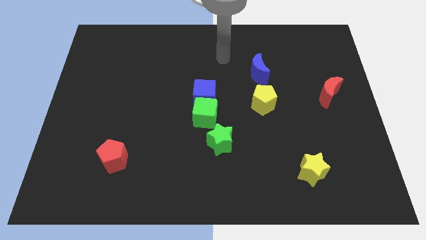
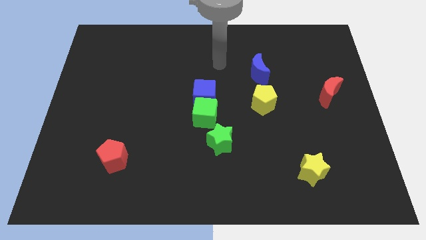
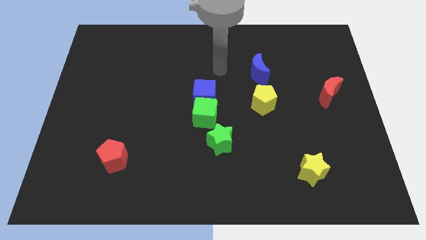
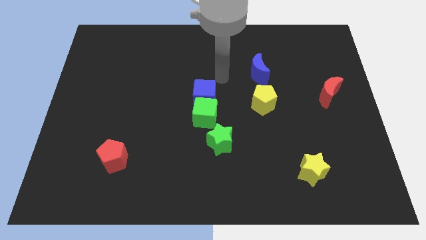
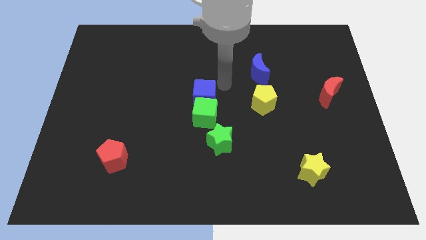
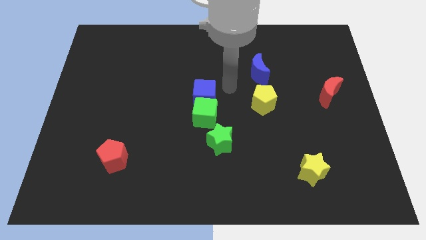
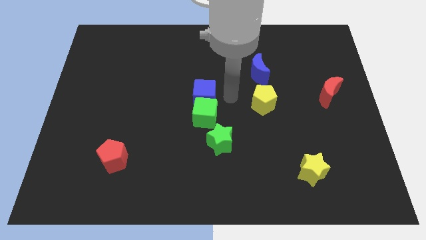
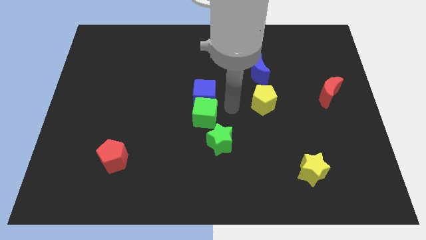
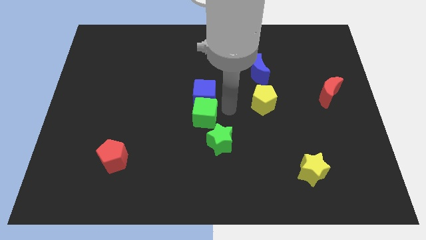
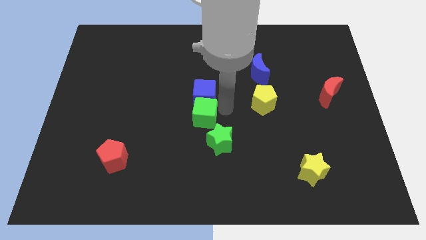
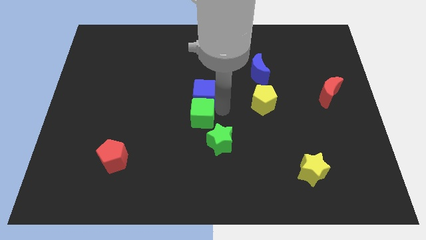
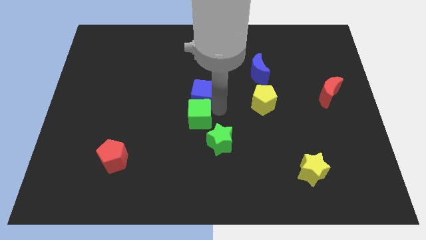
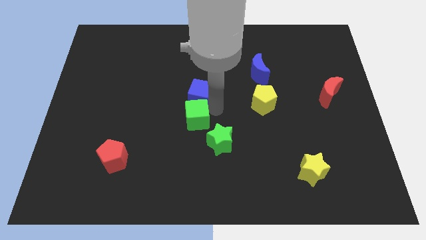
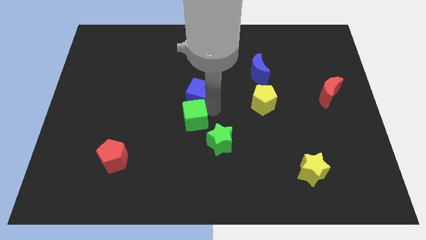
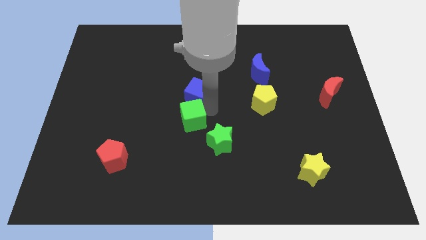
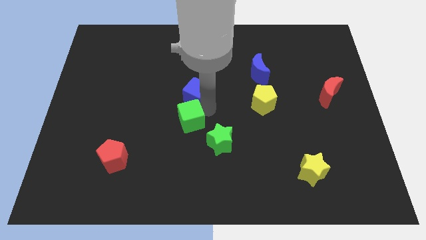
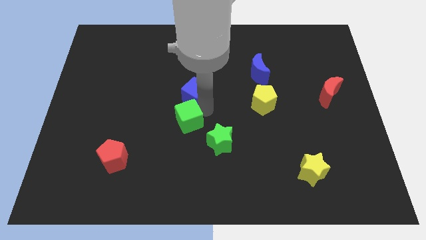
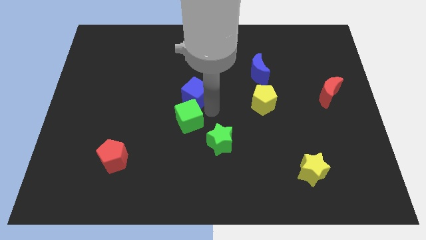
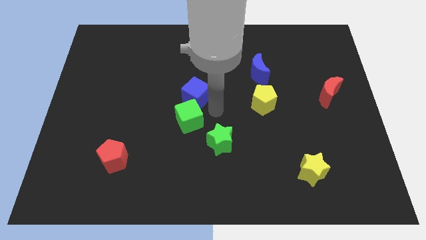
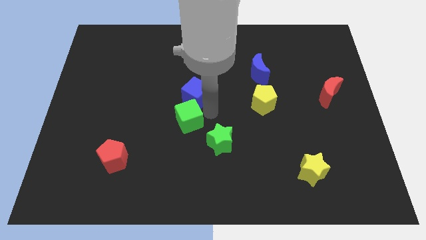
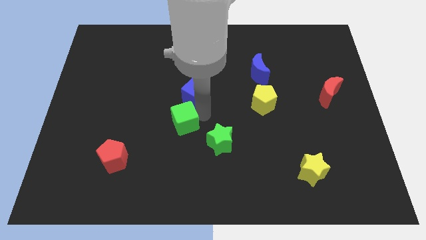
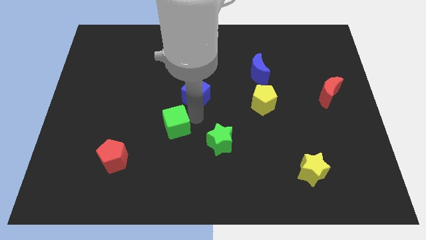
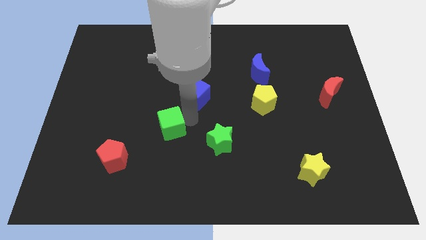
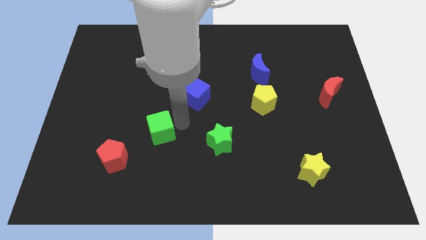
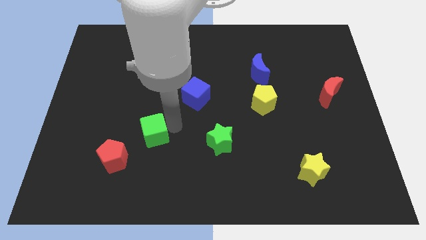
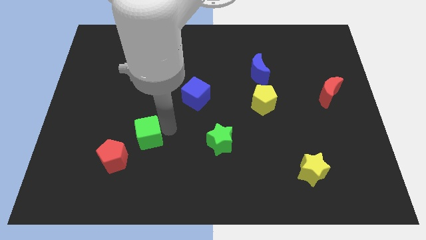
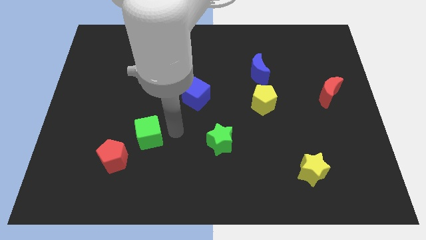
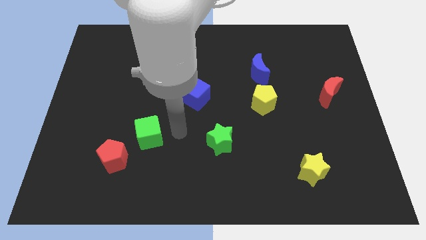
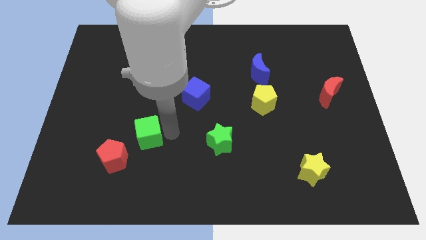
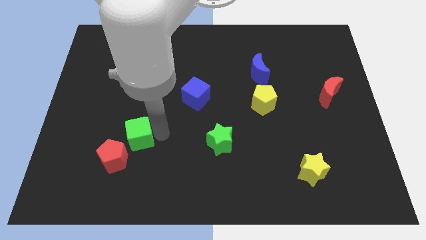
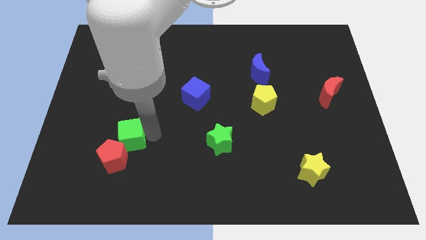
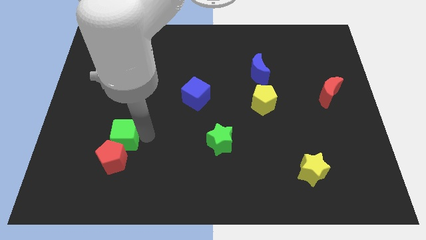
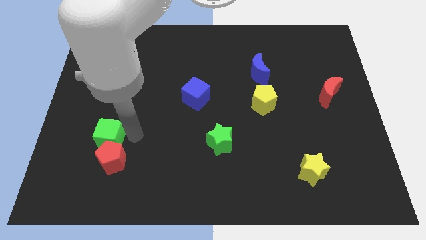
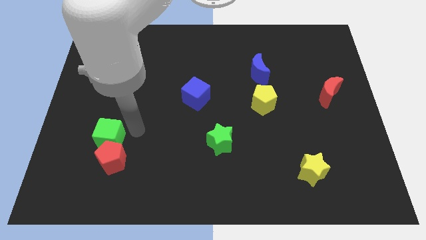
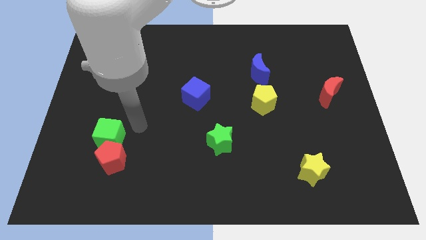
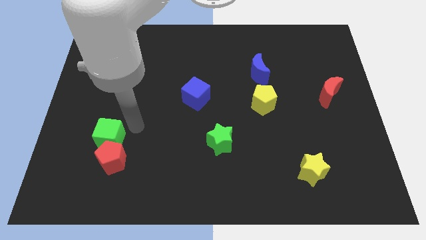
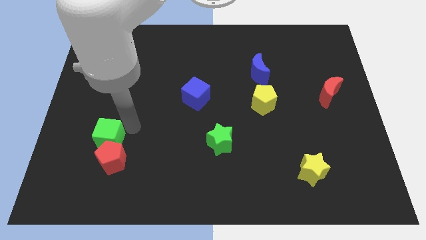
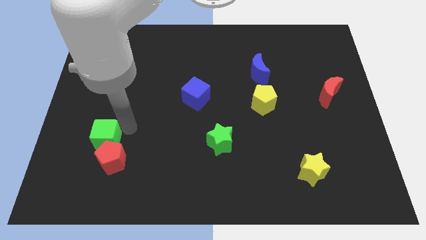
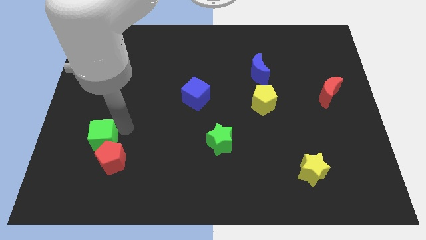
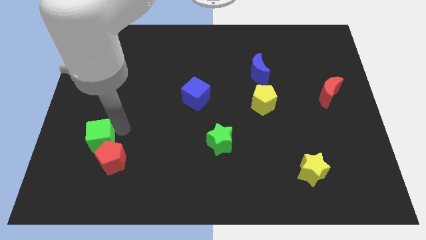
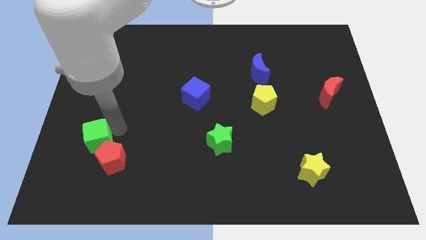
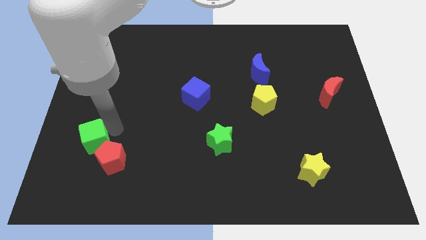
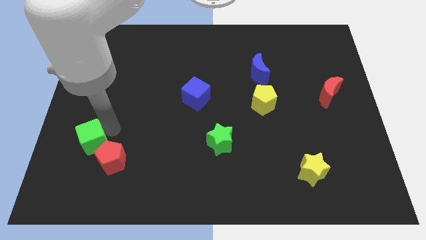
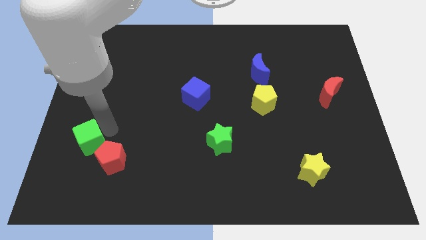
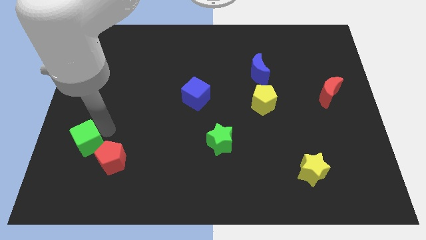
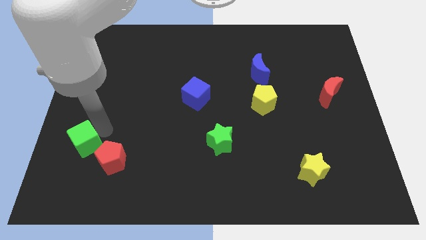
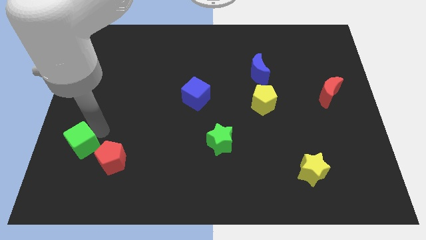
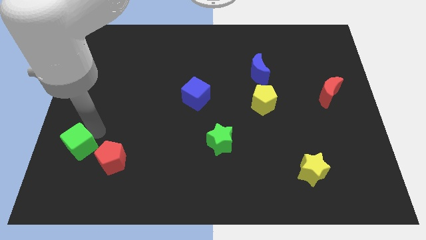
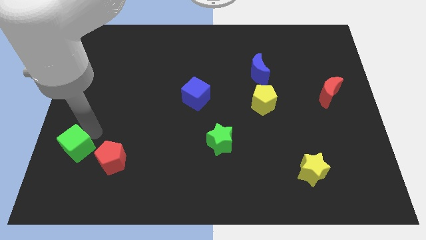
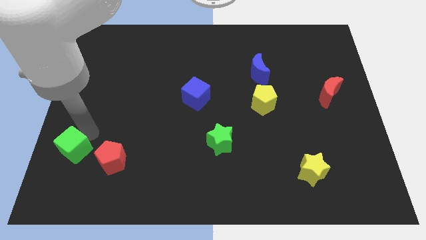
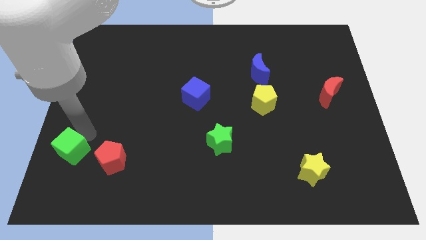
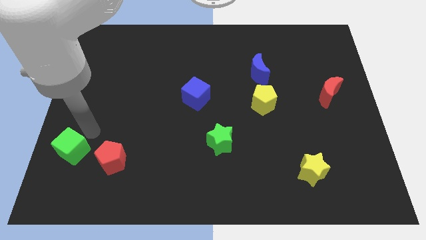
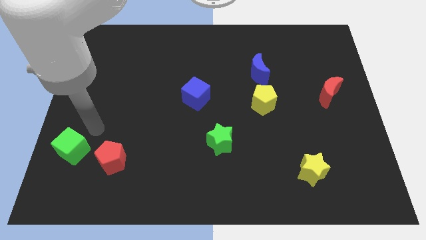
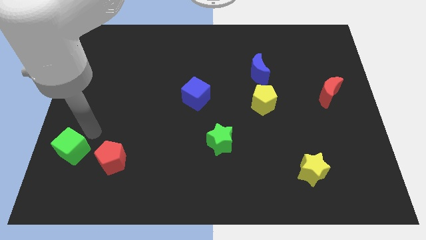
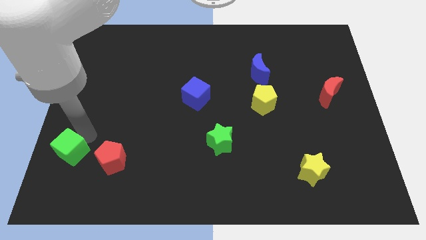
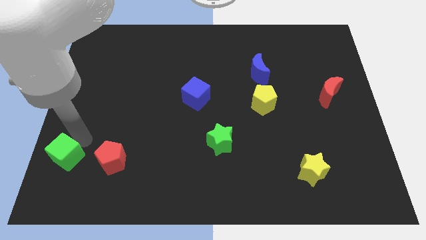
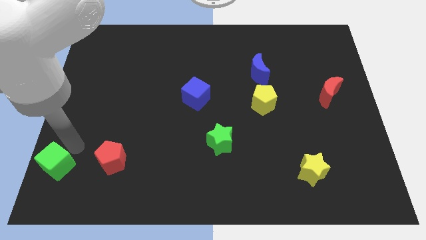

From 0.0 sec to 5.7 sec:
slide the green cube to the bottom left of the board
